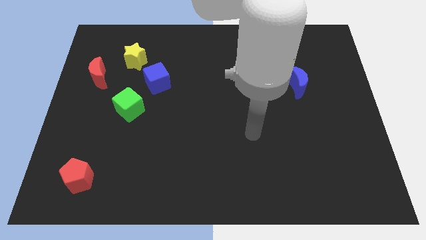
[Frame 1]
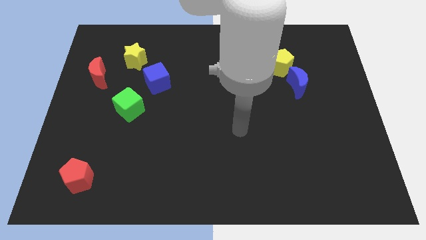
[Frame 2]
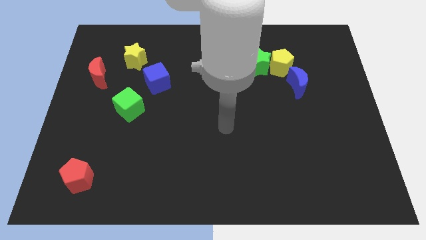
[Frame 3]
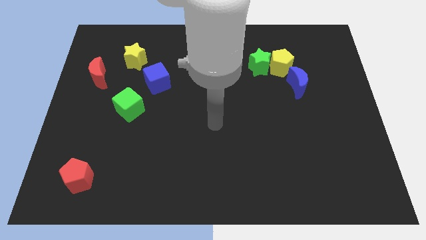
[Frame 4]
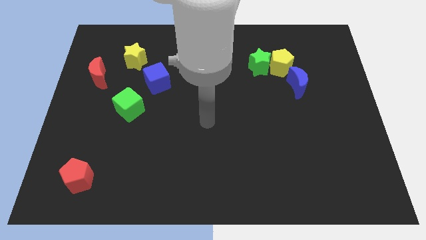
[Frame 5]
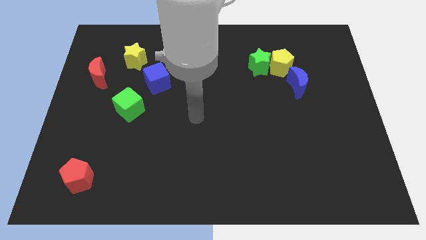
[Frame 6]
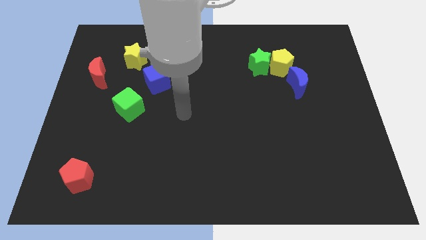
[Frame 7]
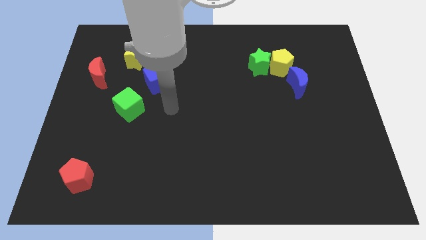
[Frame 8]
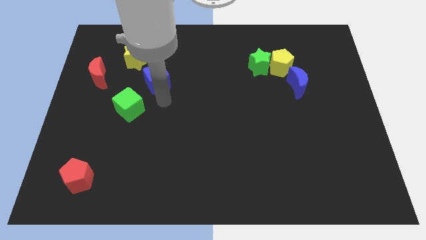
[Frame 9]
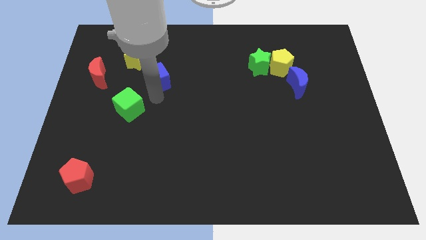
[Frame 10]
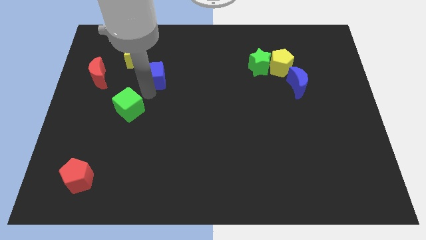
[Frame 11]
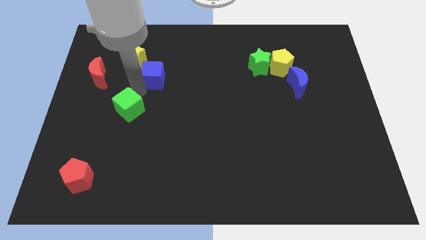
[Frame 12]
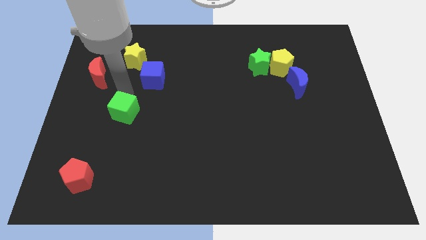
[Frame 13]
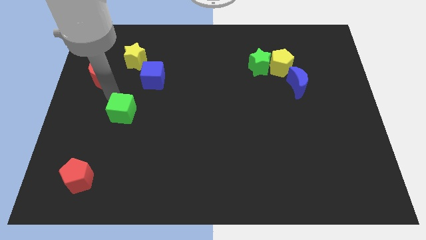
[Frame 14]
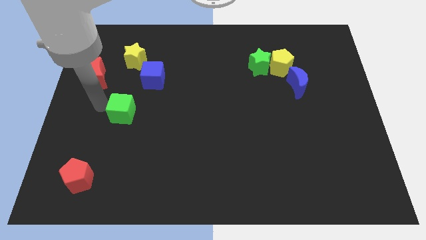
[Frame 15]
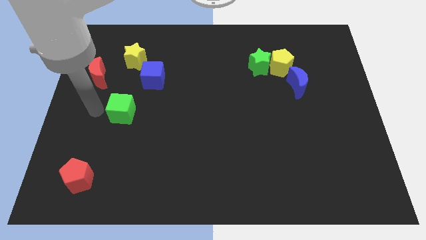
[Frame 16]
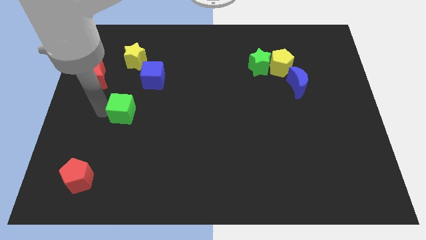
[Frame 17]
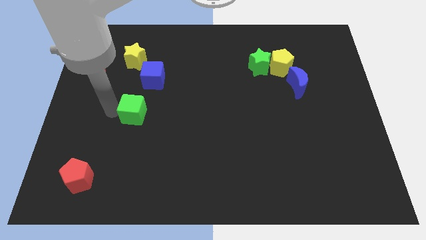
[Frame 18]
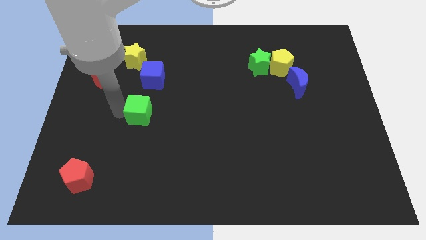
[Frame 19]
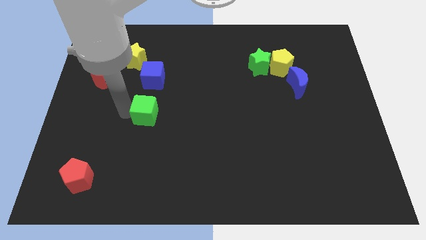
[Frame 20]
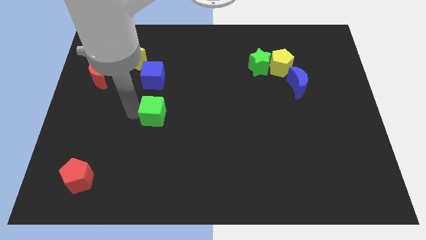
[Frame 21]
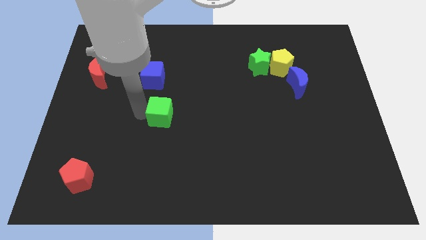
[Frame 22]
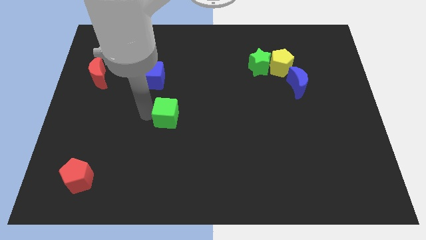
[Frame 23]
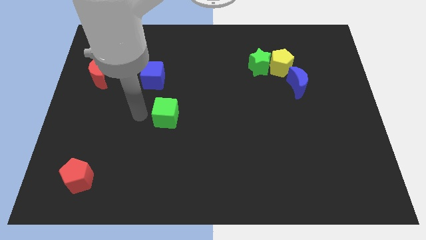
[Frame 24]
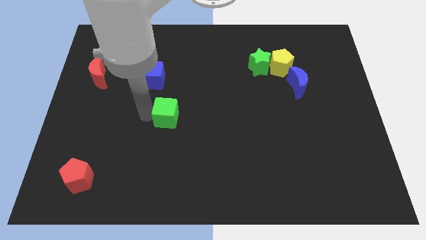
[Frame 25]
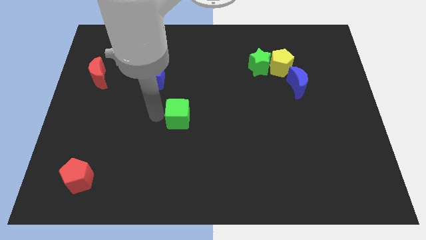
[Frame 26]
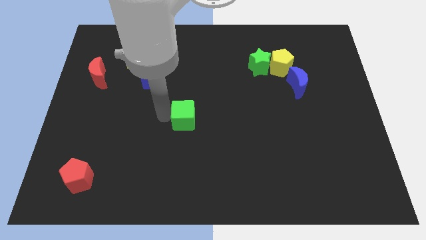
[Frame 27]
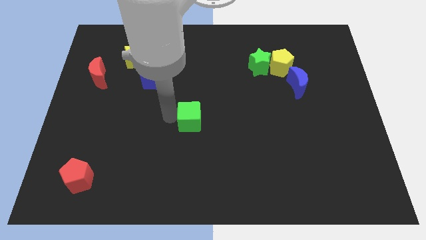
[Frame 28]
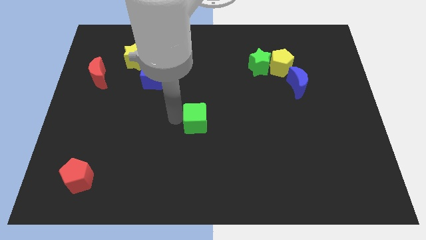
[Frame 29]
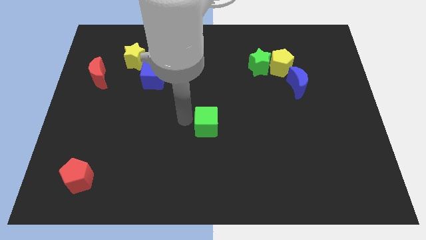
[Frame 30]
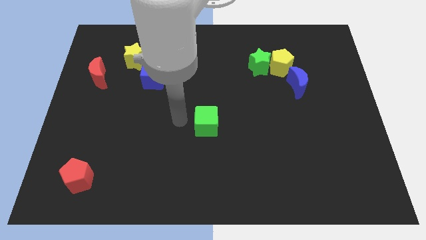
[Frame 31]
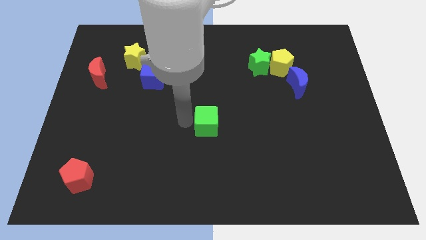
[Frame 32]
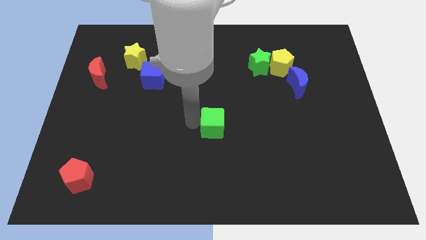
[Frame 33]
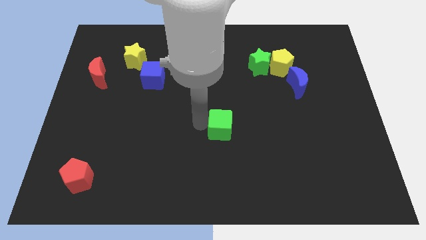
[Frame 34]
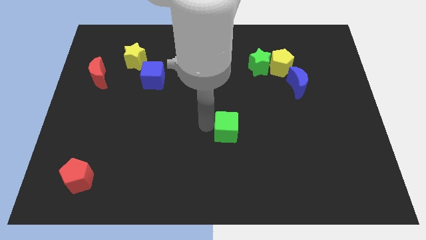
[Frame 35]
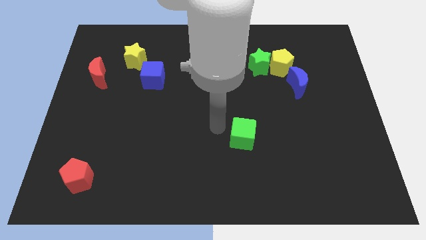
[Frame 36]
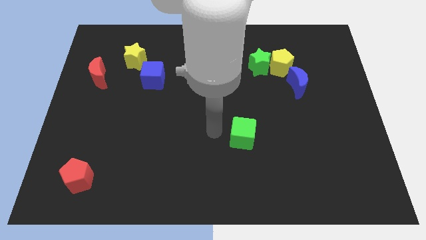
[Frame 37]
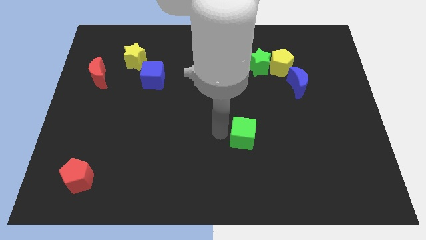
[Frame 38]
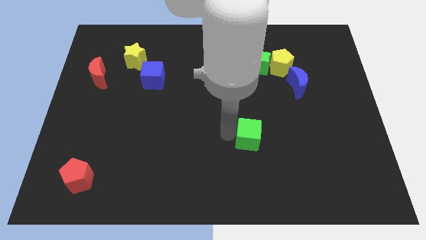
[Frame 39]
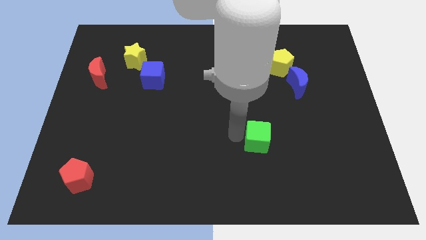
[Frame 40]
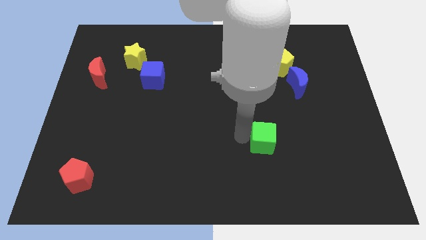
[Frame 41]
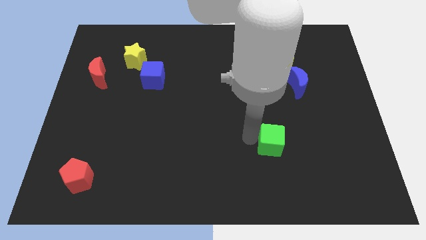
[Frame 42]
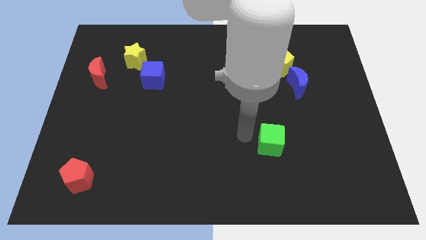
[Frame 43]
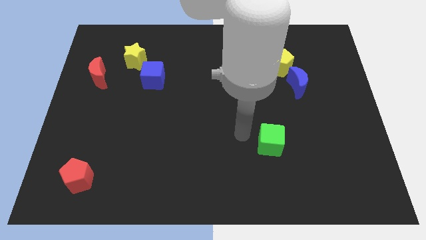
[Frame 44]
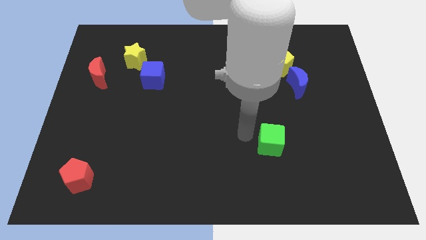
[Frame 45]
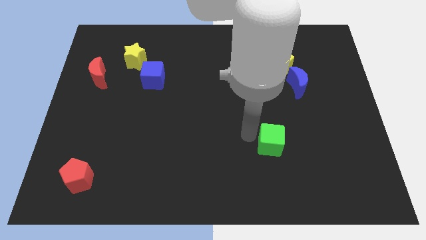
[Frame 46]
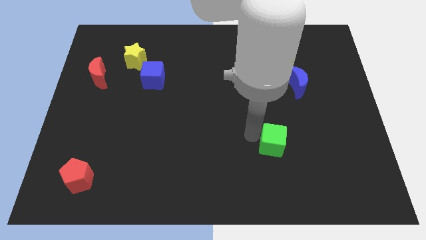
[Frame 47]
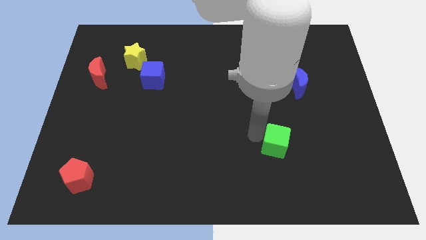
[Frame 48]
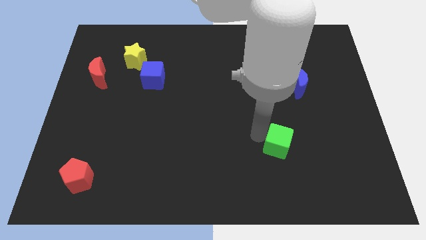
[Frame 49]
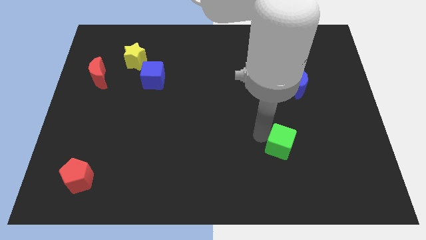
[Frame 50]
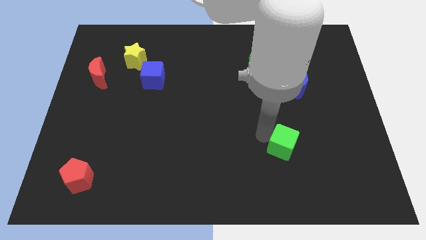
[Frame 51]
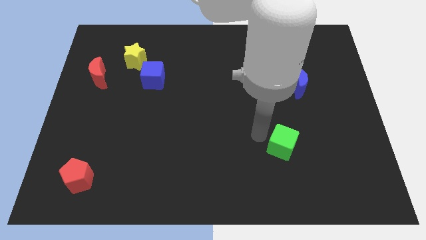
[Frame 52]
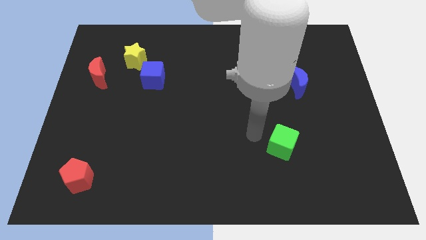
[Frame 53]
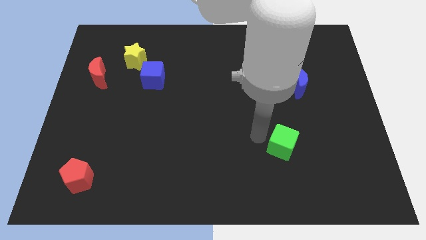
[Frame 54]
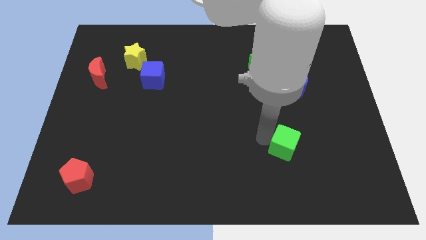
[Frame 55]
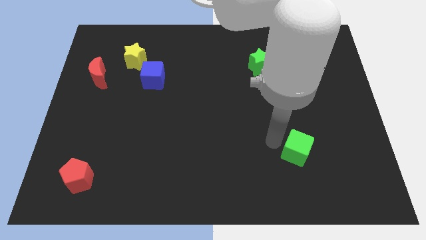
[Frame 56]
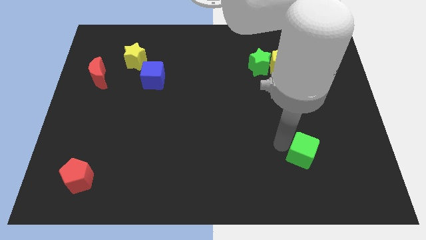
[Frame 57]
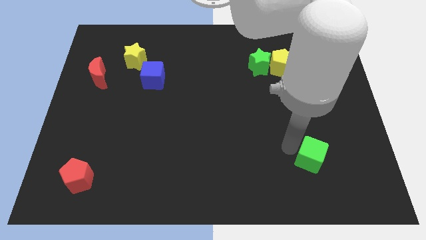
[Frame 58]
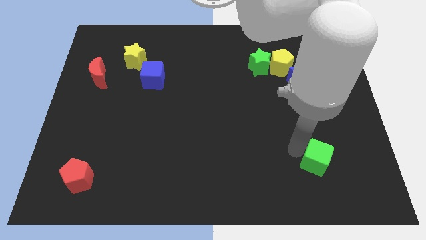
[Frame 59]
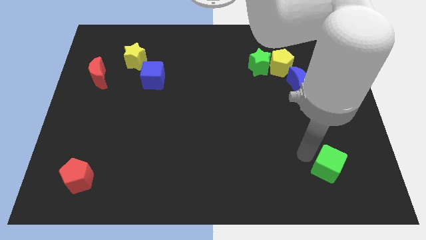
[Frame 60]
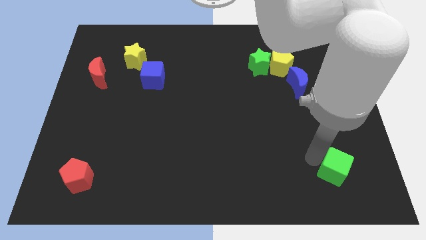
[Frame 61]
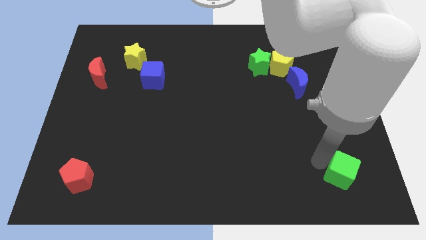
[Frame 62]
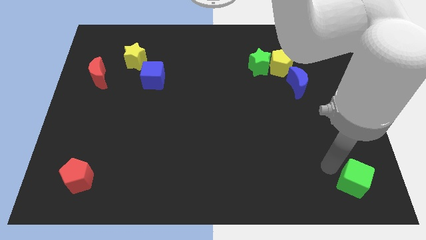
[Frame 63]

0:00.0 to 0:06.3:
slide the green cube to the bottom right corner

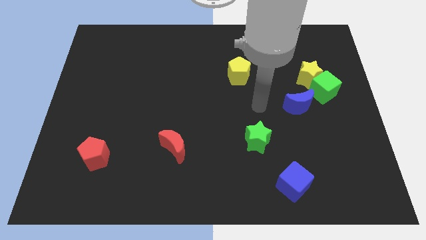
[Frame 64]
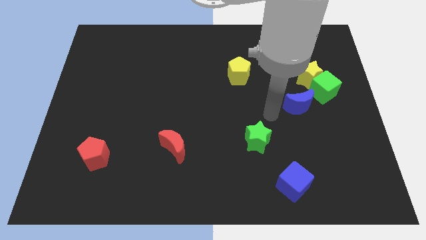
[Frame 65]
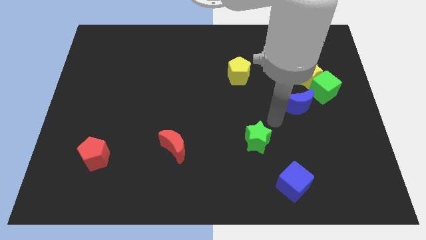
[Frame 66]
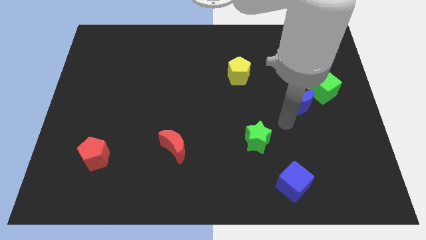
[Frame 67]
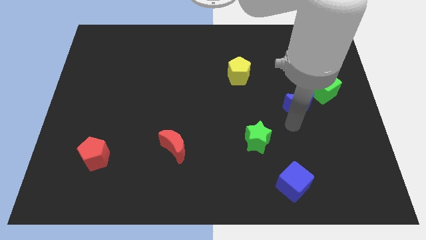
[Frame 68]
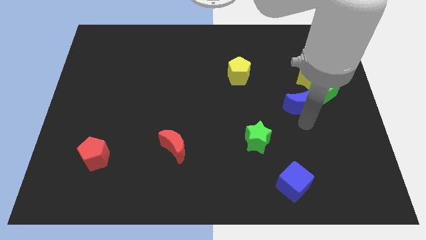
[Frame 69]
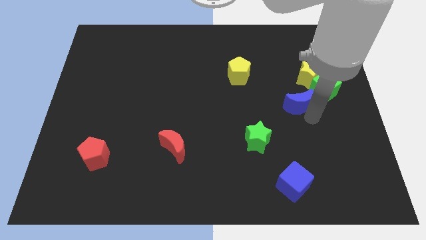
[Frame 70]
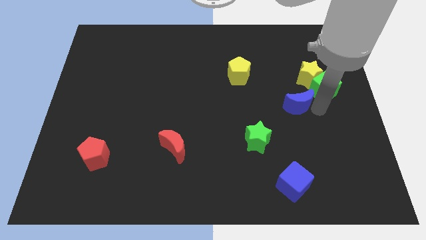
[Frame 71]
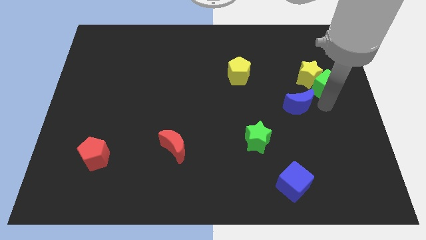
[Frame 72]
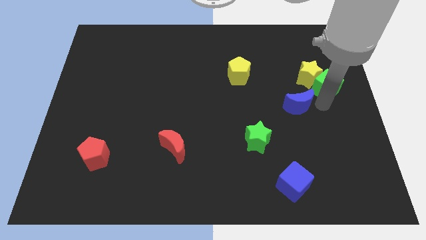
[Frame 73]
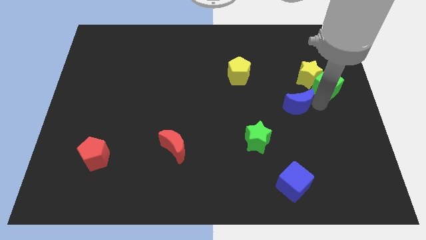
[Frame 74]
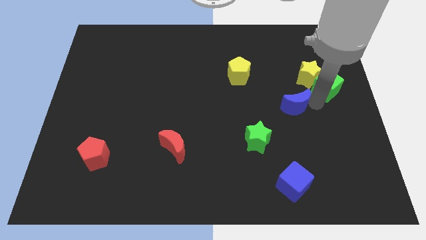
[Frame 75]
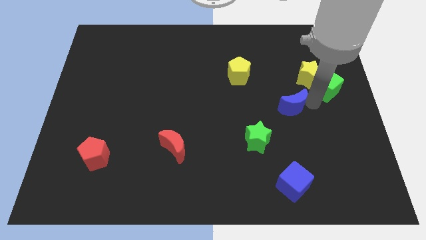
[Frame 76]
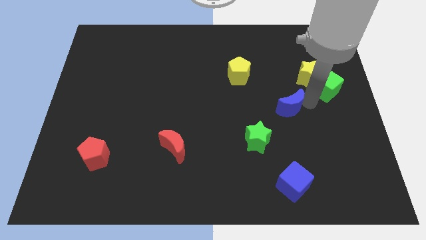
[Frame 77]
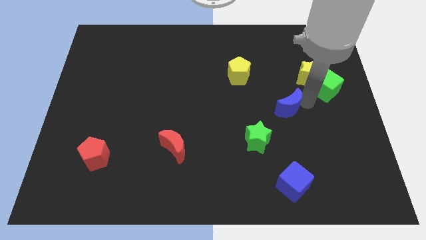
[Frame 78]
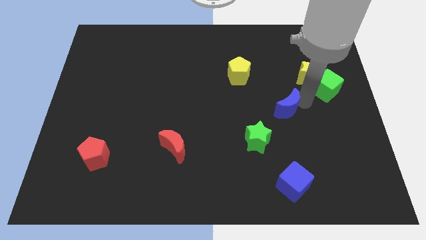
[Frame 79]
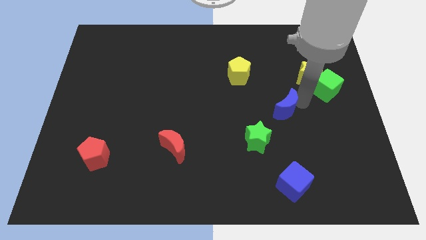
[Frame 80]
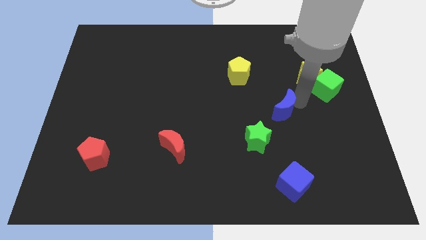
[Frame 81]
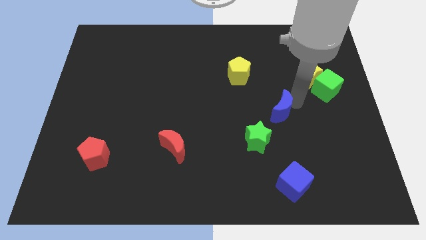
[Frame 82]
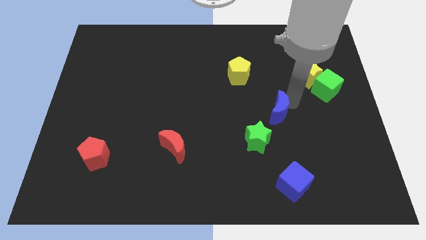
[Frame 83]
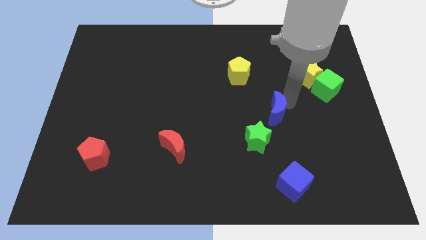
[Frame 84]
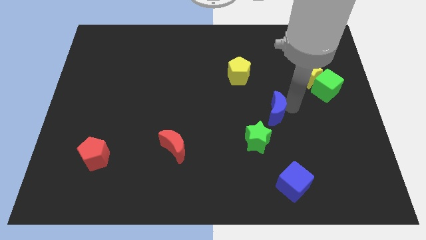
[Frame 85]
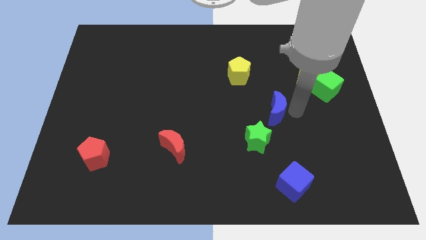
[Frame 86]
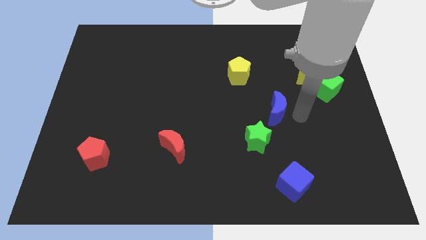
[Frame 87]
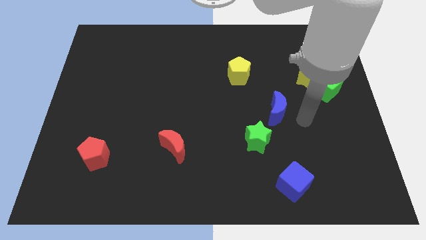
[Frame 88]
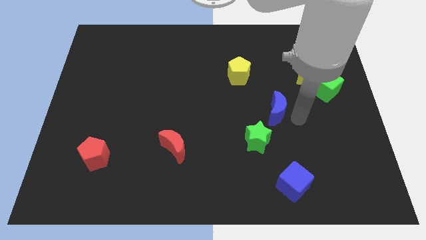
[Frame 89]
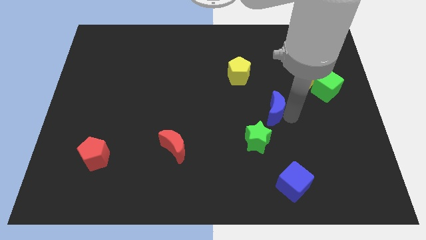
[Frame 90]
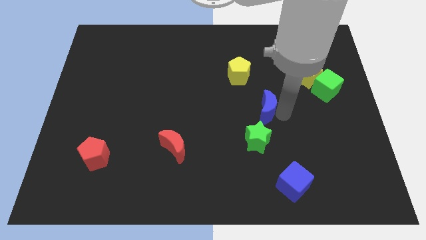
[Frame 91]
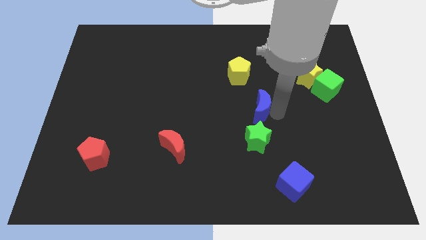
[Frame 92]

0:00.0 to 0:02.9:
put the blue moon to the center
